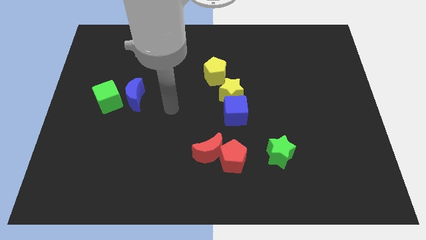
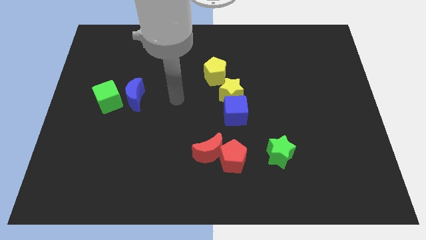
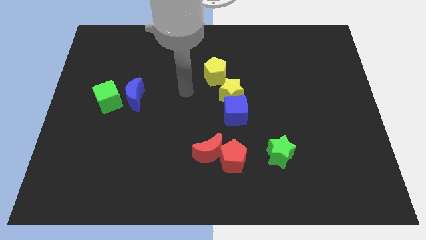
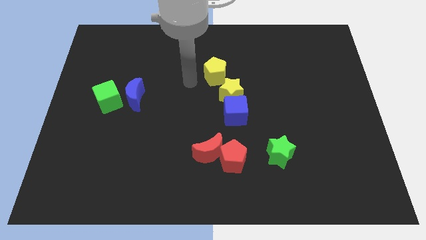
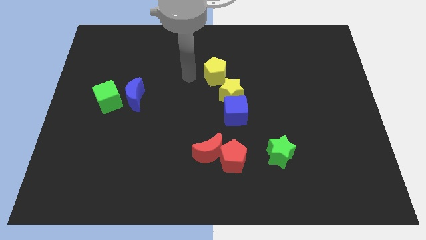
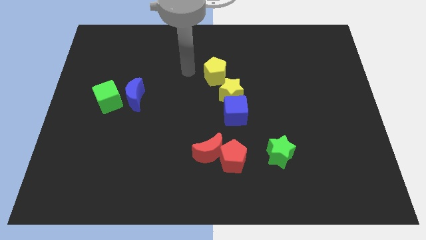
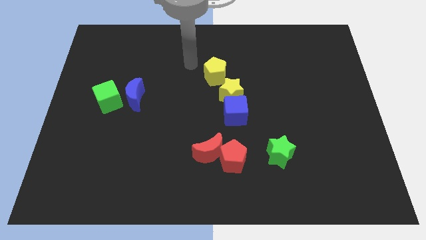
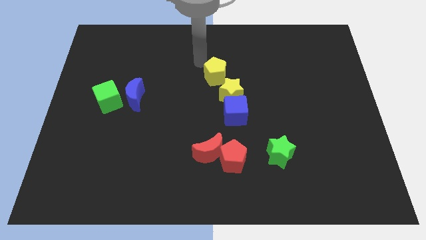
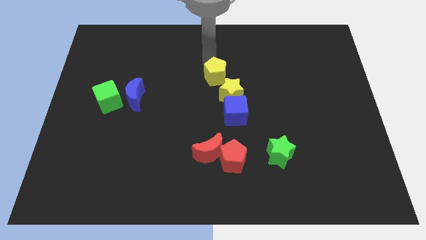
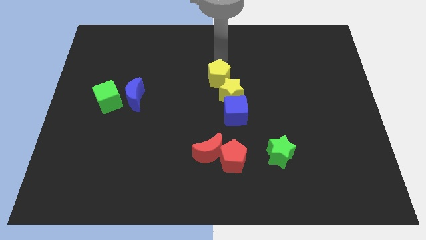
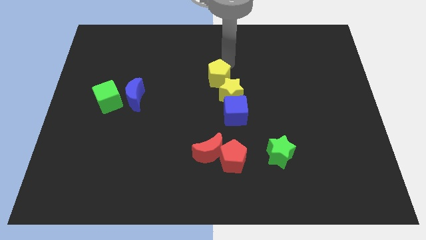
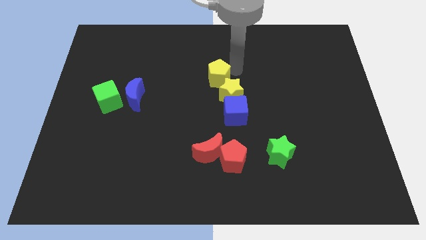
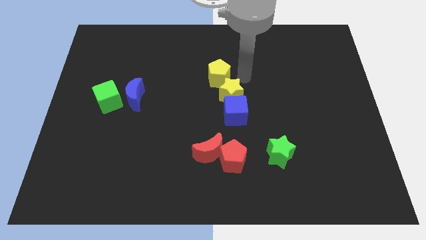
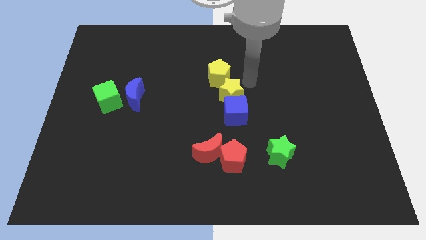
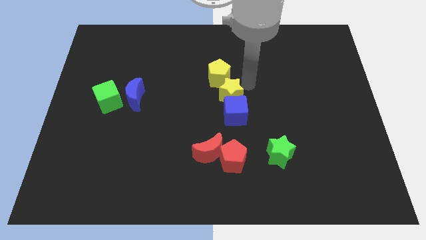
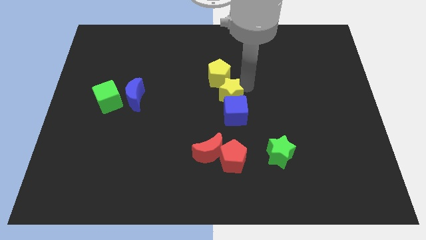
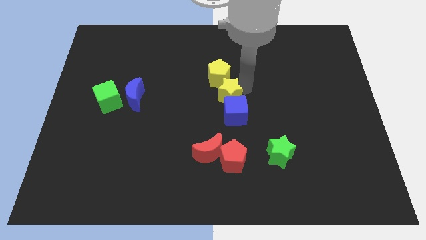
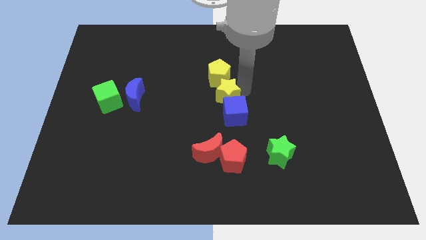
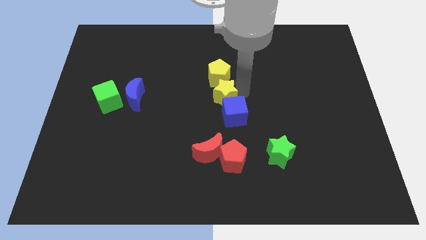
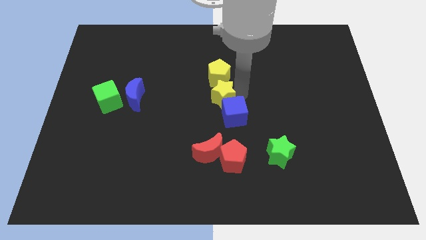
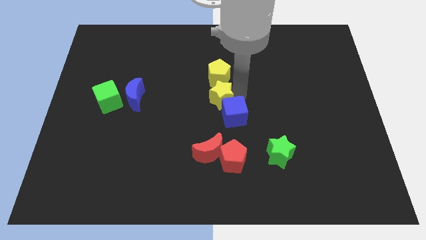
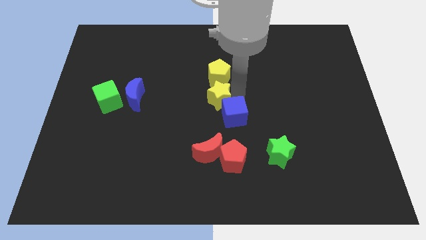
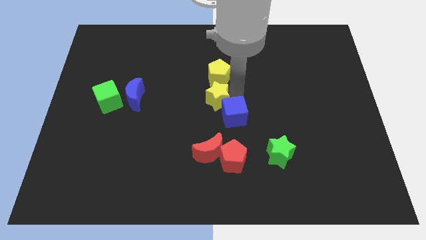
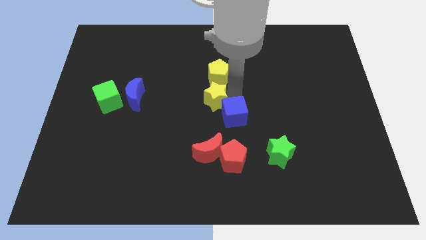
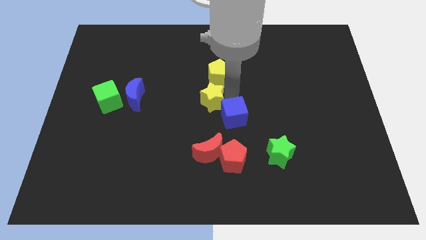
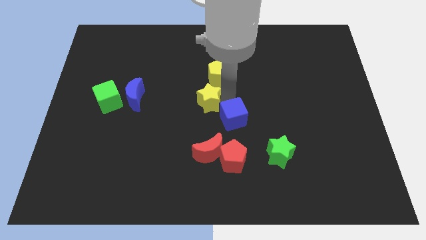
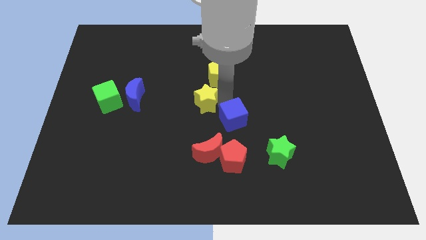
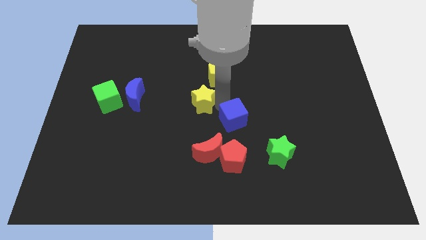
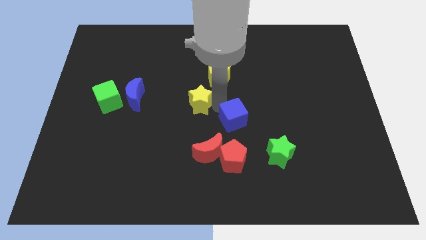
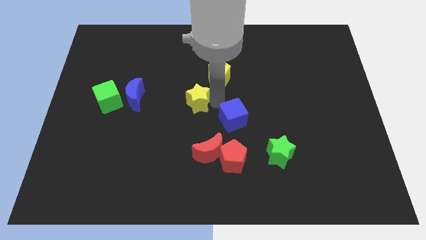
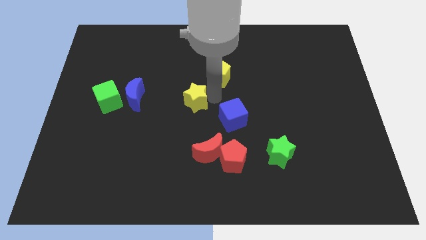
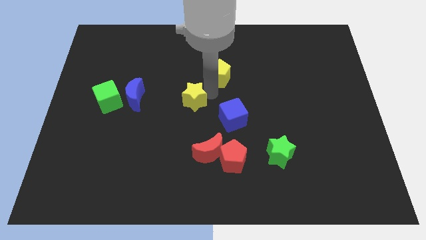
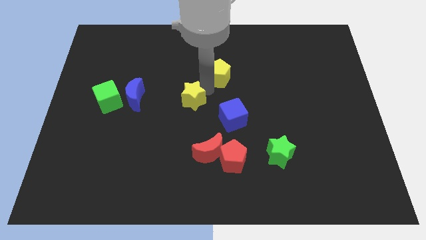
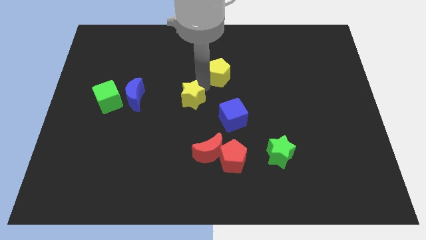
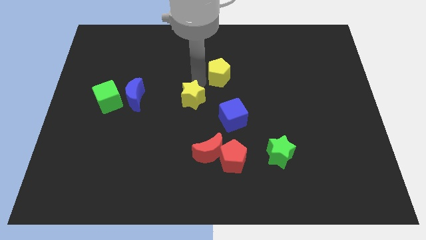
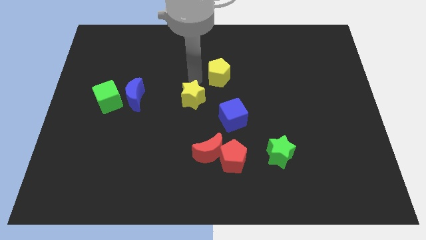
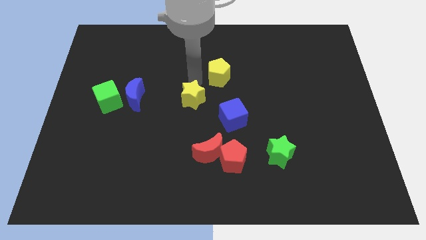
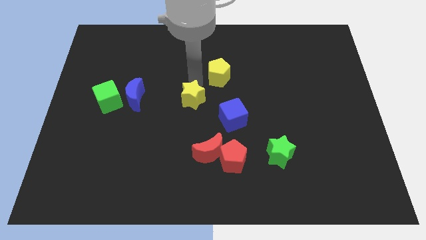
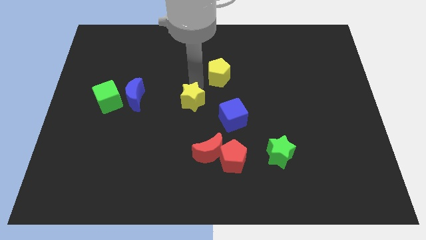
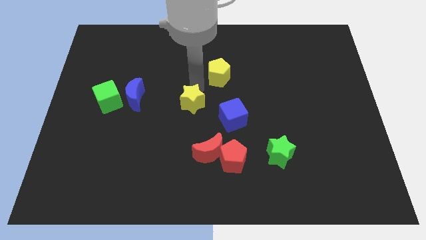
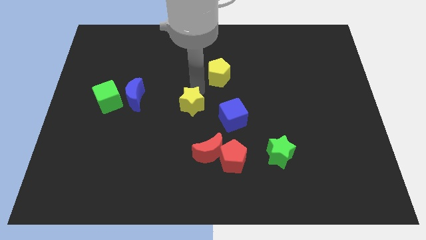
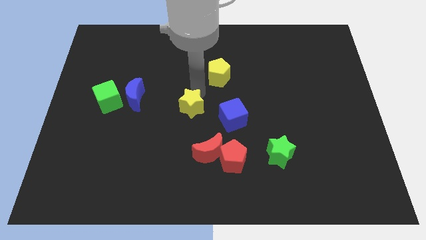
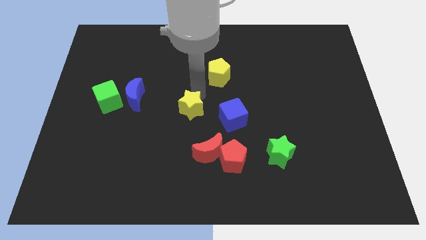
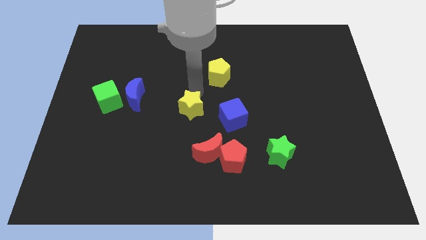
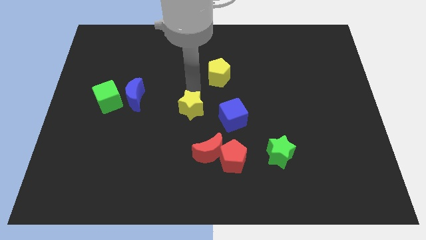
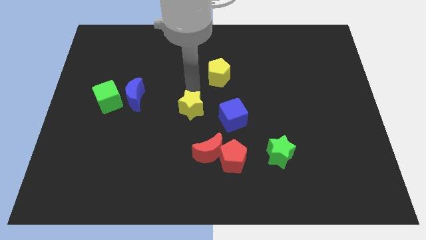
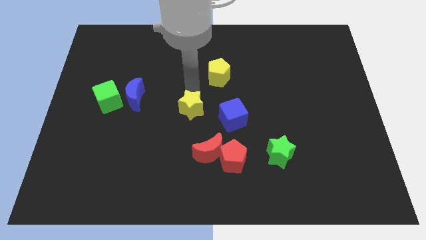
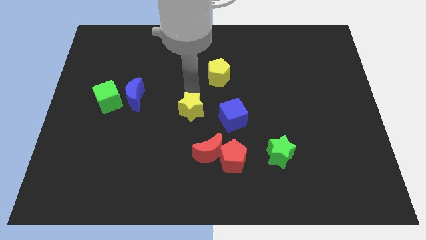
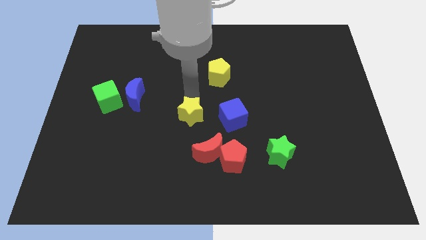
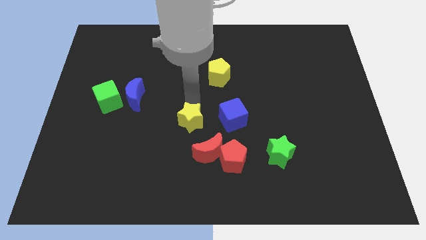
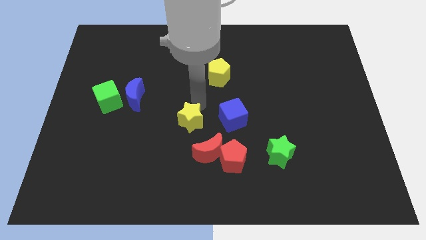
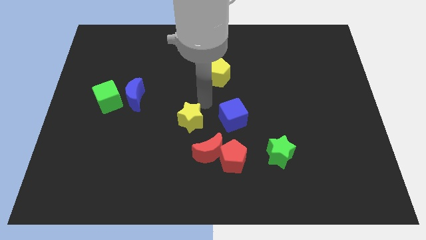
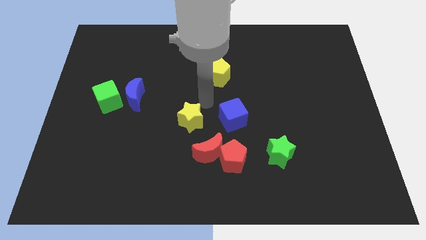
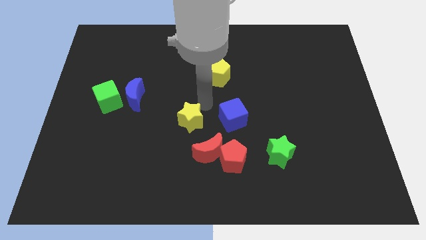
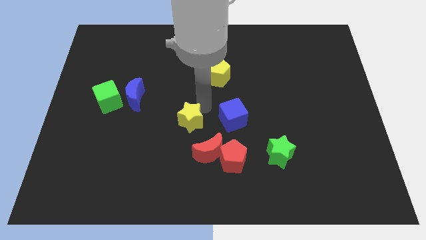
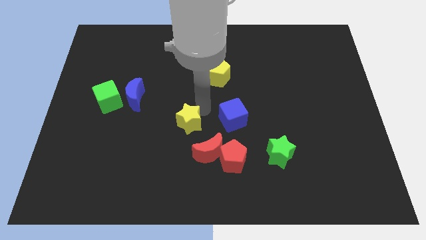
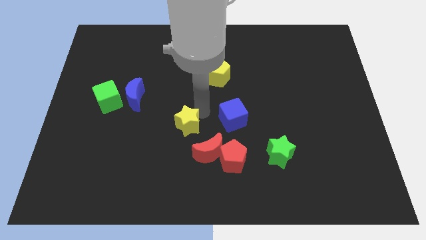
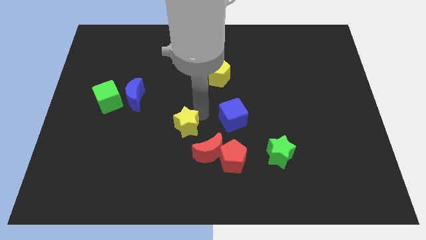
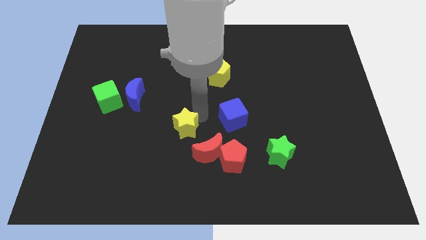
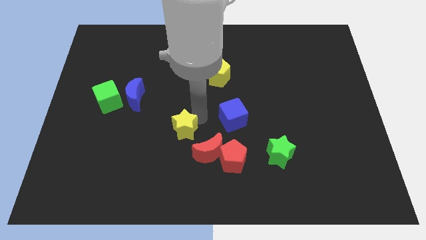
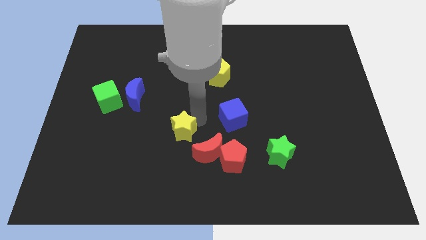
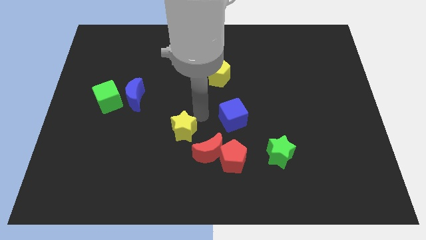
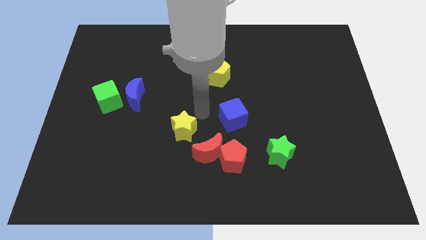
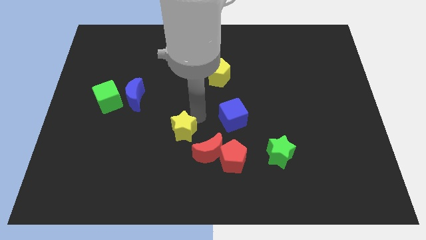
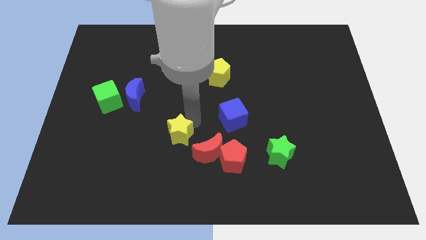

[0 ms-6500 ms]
push the yellow star to the left side of the red moon
